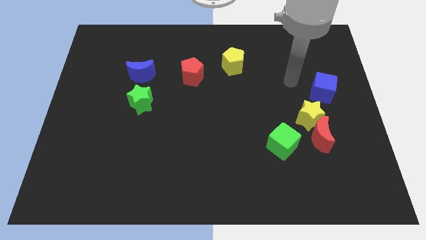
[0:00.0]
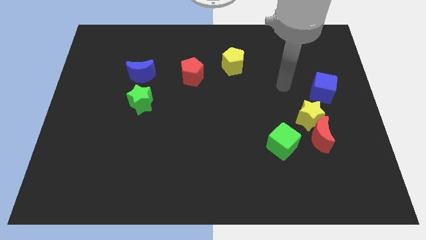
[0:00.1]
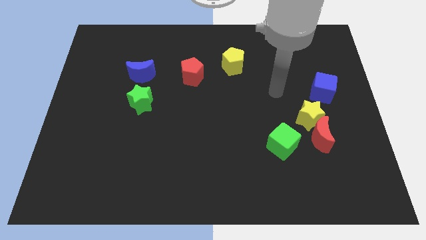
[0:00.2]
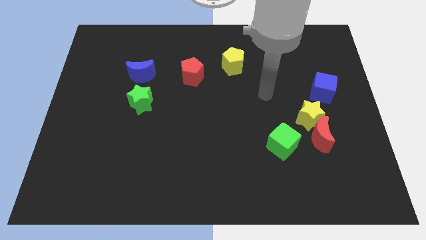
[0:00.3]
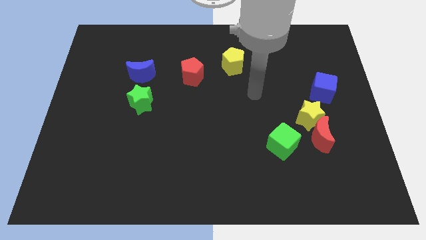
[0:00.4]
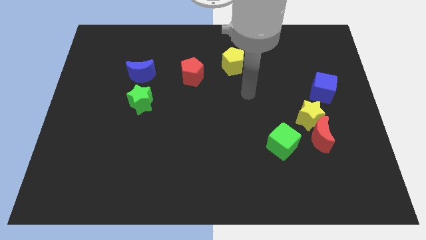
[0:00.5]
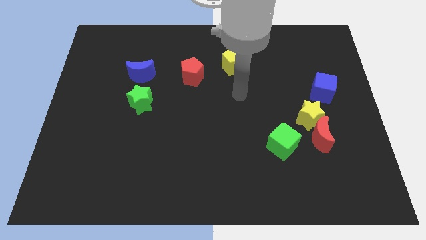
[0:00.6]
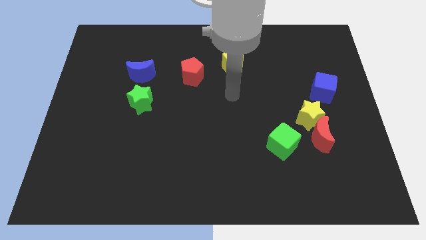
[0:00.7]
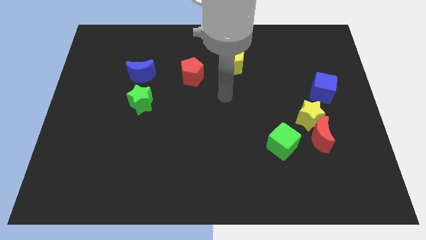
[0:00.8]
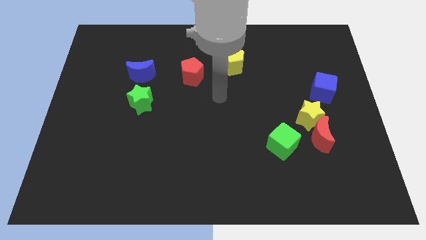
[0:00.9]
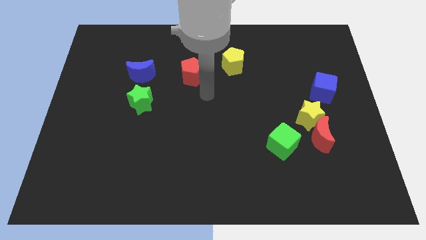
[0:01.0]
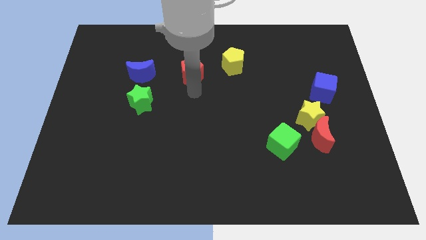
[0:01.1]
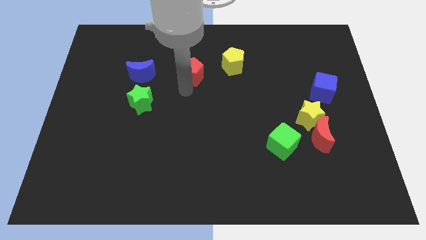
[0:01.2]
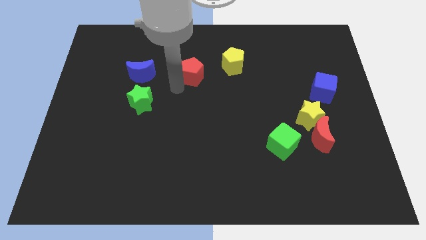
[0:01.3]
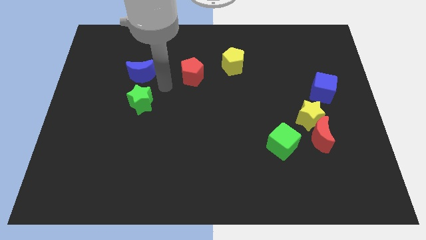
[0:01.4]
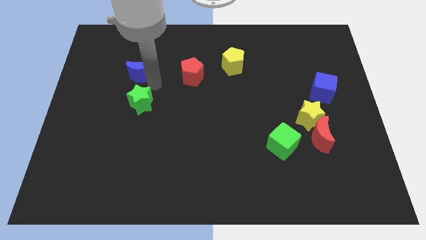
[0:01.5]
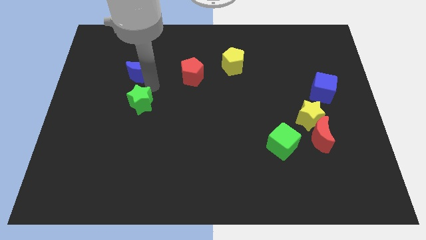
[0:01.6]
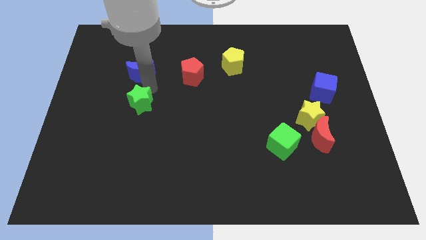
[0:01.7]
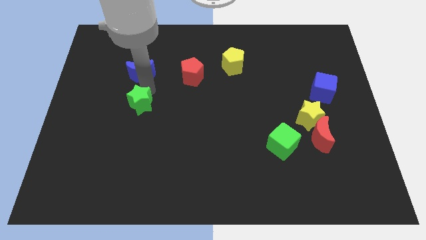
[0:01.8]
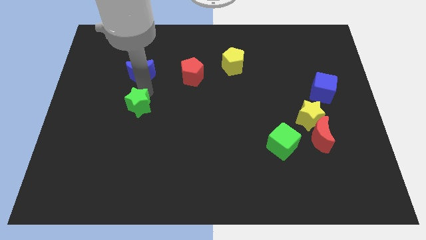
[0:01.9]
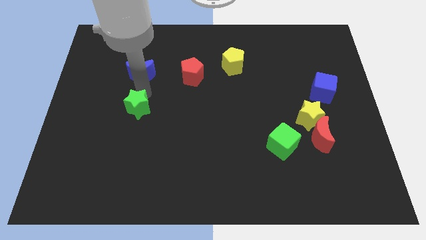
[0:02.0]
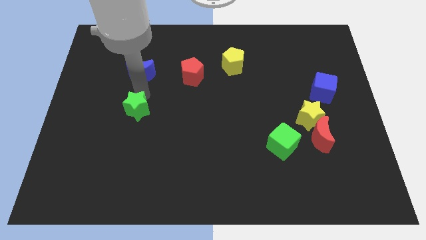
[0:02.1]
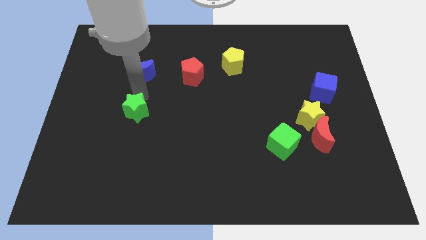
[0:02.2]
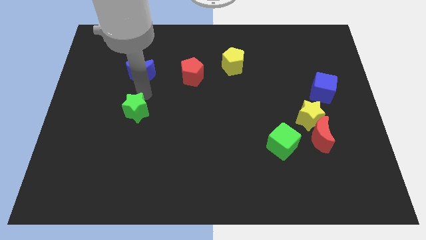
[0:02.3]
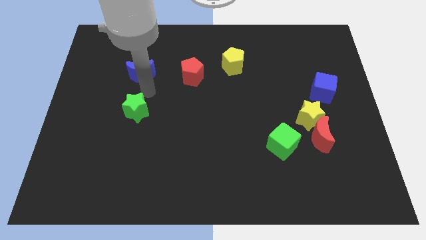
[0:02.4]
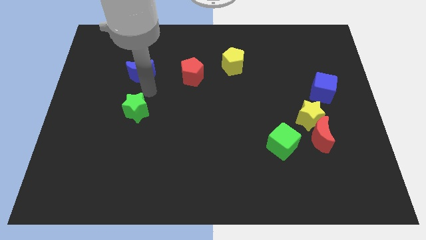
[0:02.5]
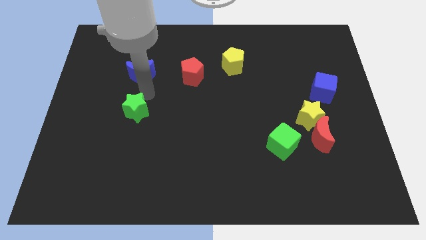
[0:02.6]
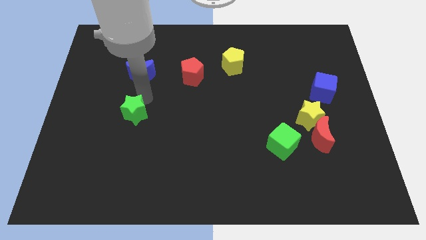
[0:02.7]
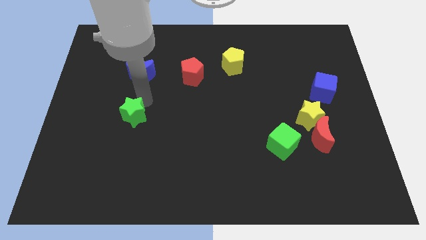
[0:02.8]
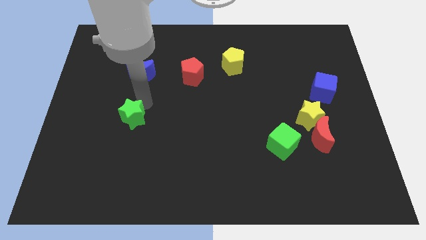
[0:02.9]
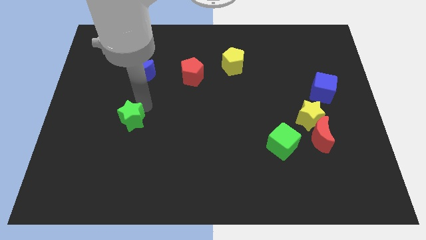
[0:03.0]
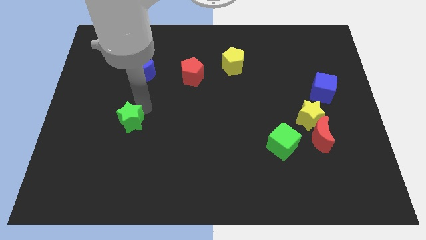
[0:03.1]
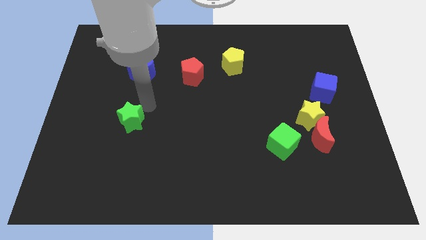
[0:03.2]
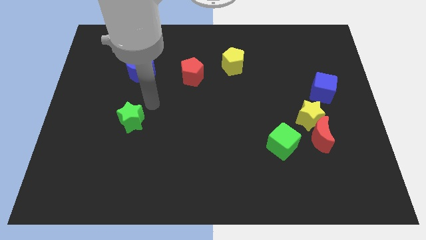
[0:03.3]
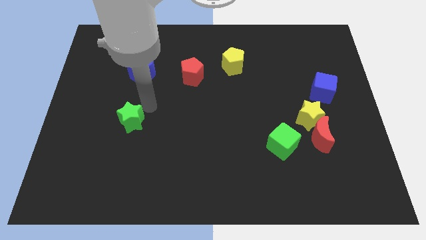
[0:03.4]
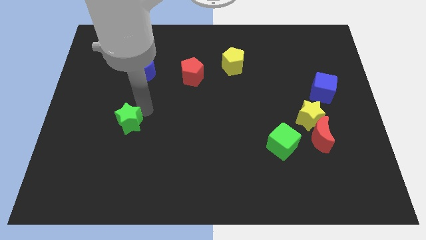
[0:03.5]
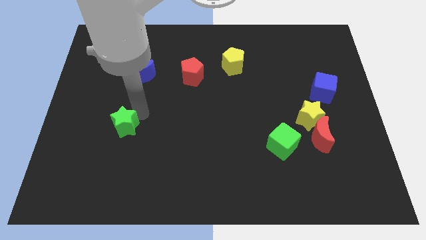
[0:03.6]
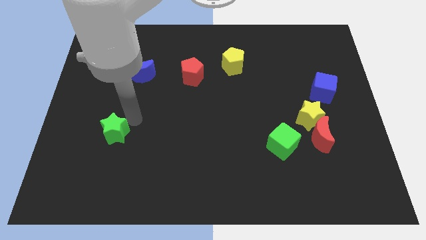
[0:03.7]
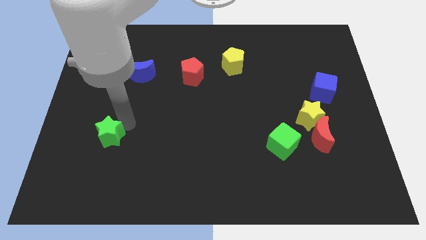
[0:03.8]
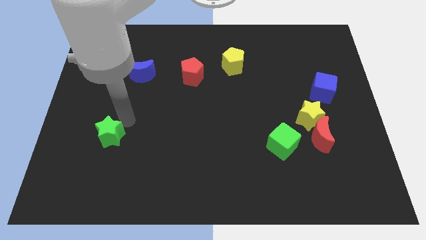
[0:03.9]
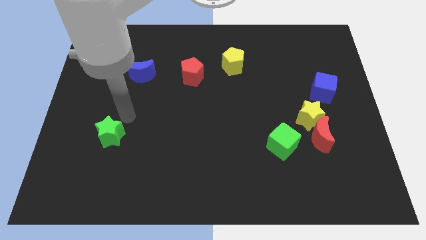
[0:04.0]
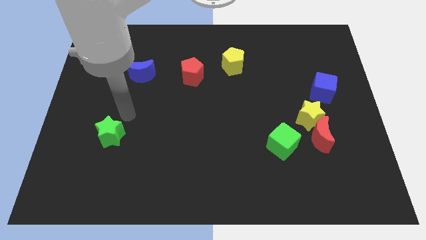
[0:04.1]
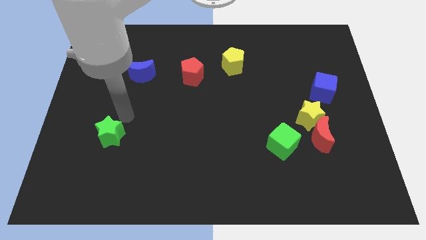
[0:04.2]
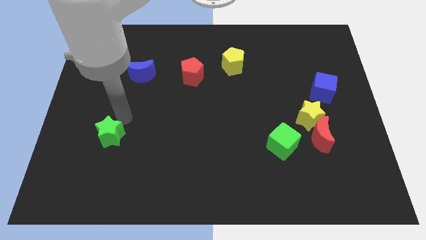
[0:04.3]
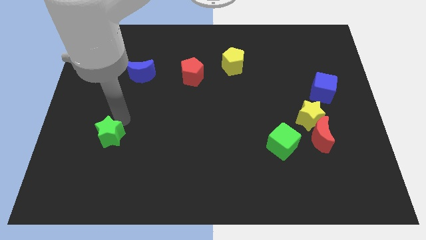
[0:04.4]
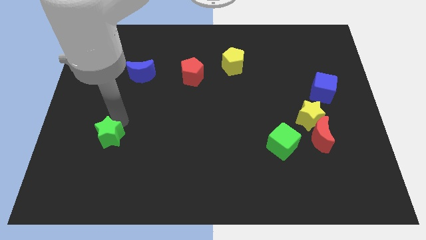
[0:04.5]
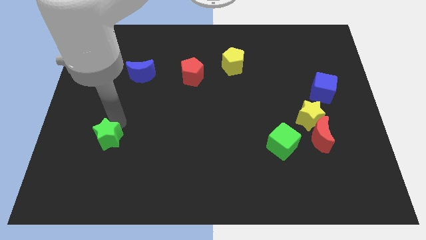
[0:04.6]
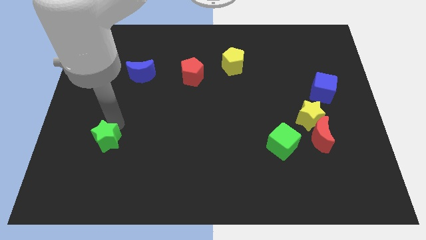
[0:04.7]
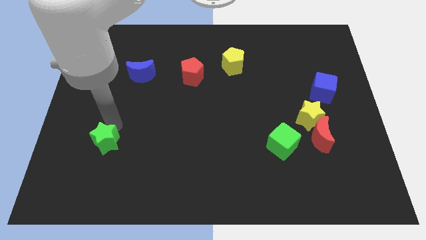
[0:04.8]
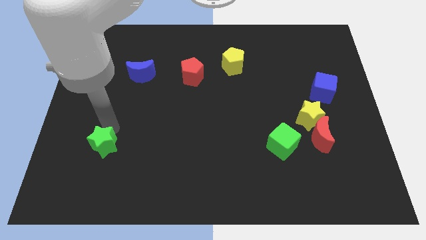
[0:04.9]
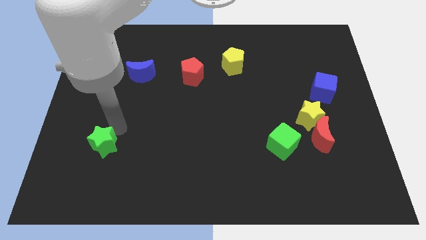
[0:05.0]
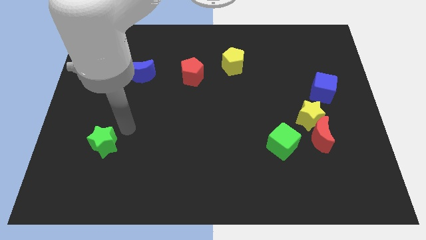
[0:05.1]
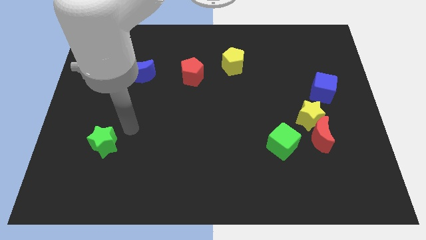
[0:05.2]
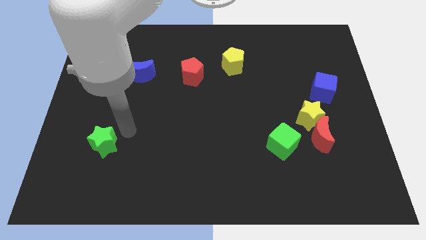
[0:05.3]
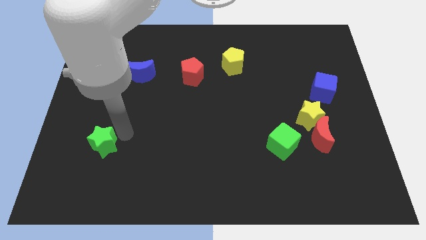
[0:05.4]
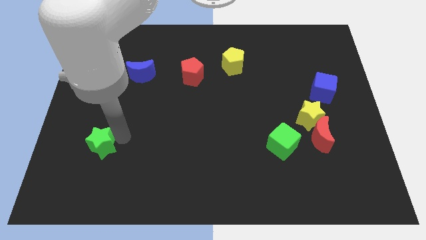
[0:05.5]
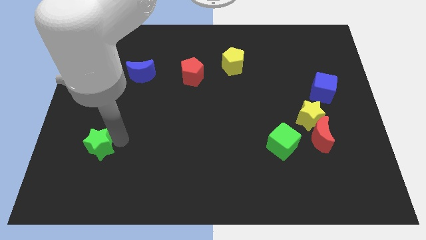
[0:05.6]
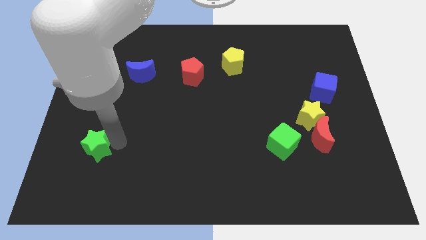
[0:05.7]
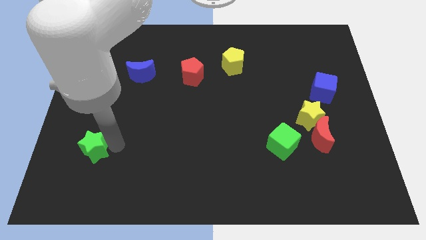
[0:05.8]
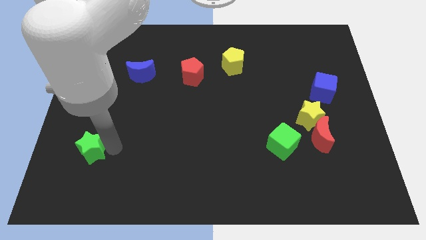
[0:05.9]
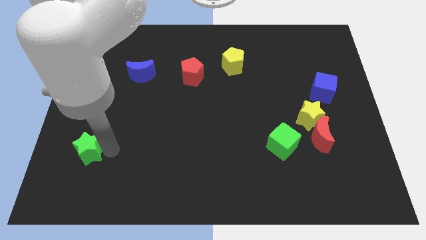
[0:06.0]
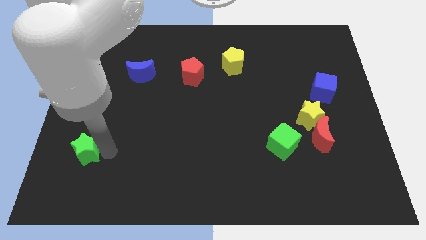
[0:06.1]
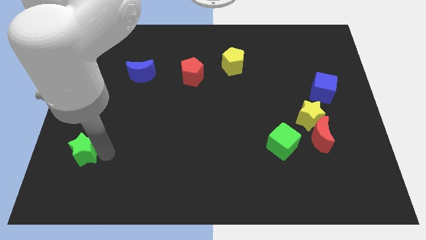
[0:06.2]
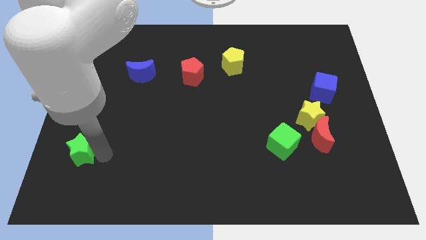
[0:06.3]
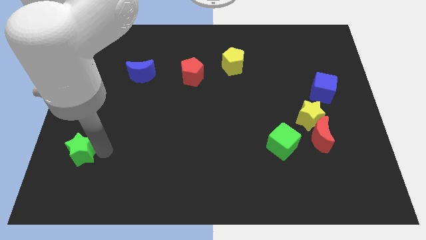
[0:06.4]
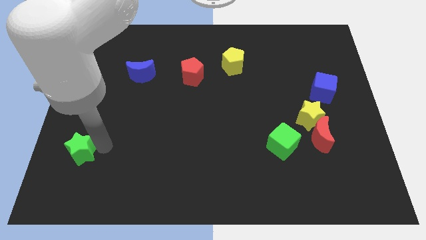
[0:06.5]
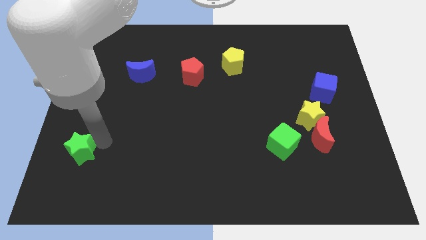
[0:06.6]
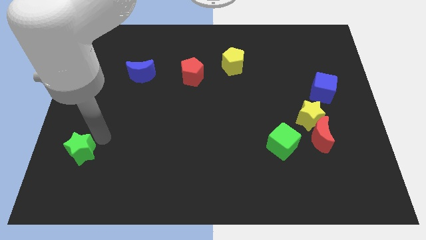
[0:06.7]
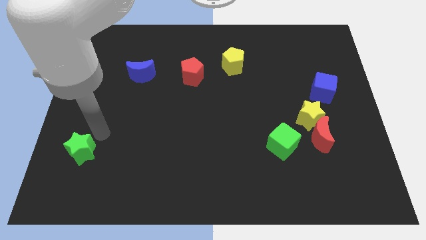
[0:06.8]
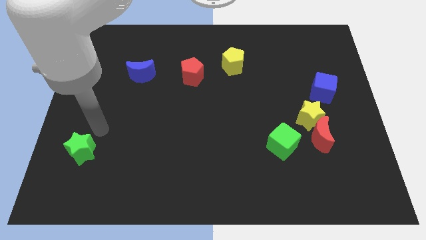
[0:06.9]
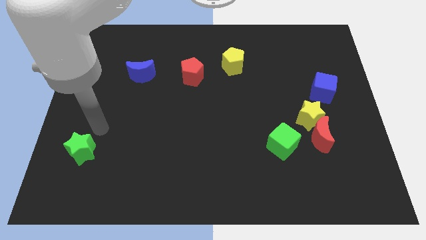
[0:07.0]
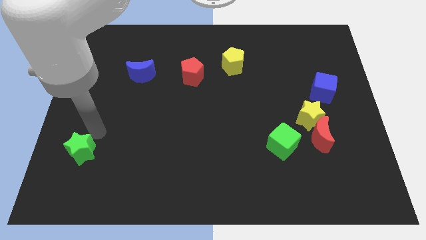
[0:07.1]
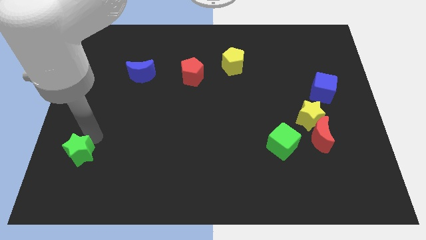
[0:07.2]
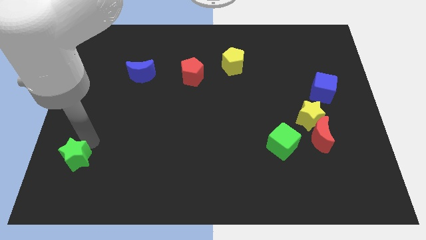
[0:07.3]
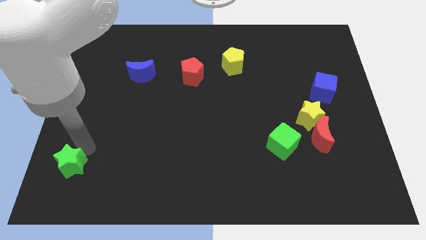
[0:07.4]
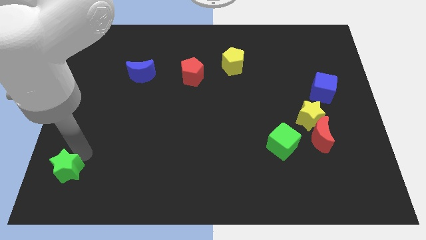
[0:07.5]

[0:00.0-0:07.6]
put the green star to the bottom left
